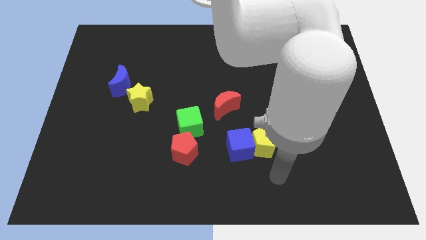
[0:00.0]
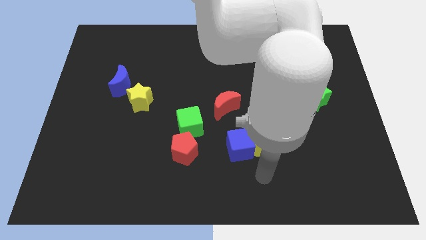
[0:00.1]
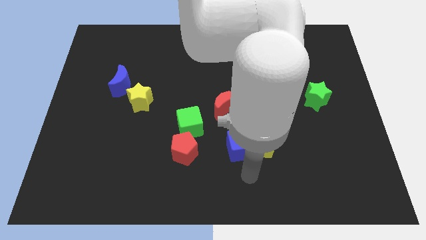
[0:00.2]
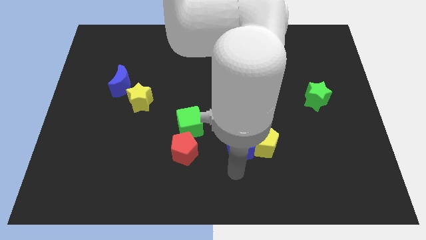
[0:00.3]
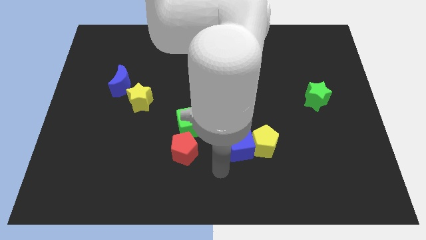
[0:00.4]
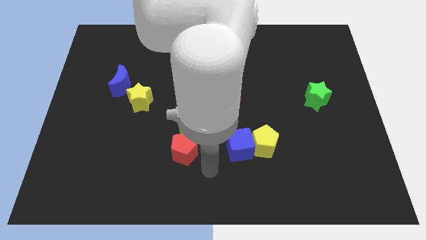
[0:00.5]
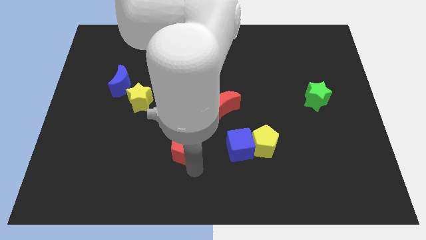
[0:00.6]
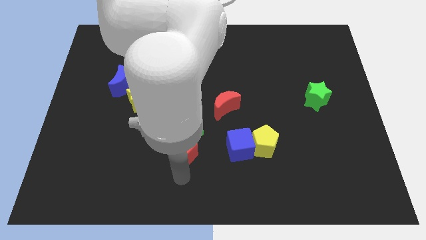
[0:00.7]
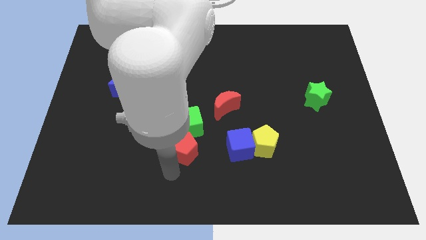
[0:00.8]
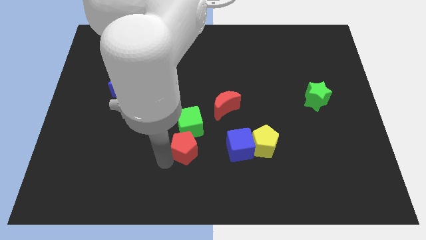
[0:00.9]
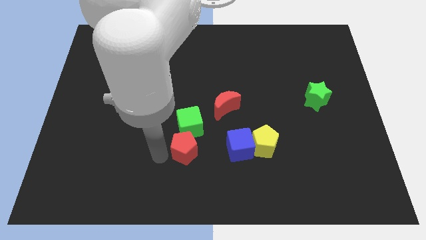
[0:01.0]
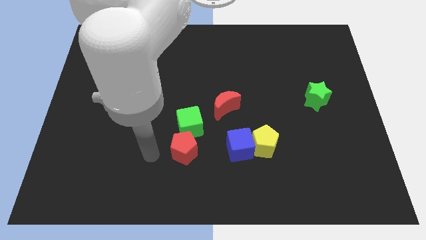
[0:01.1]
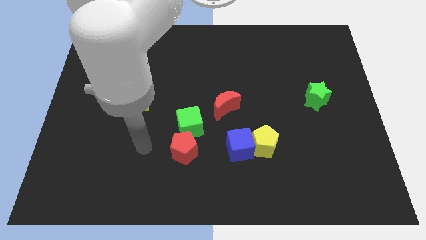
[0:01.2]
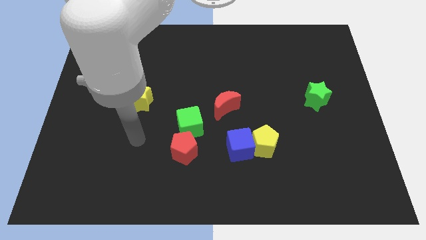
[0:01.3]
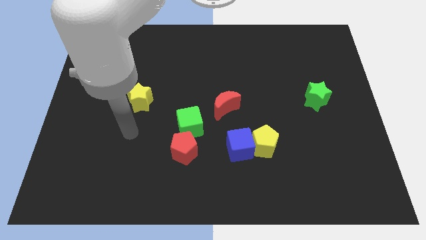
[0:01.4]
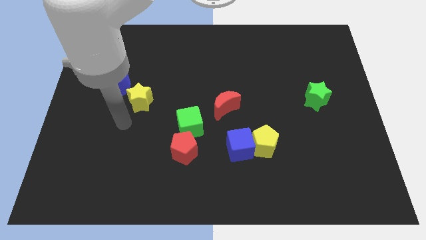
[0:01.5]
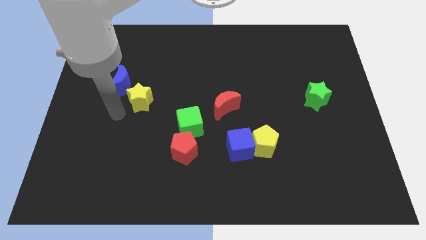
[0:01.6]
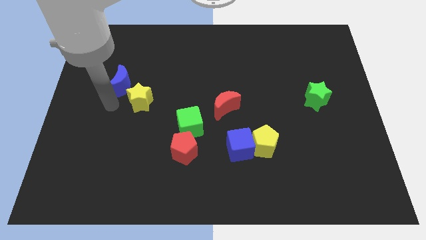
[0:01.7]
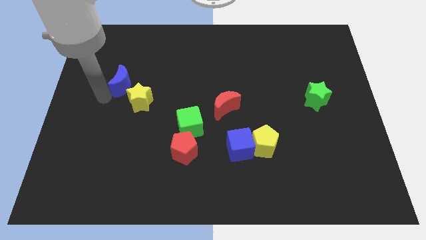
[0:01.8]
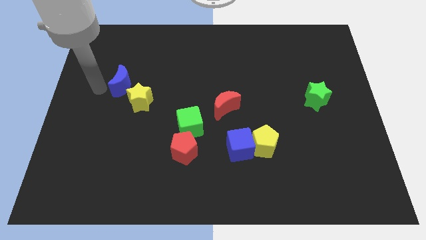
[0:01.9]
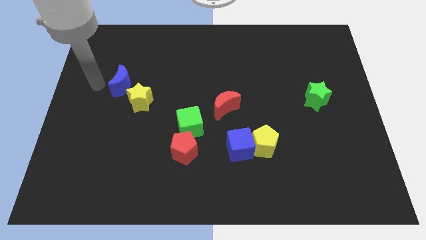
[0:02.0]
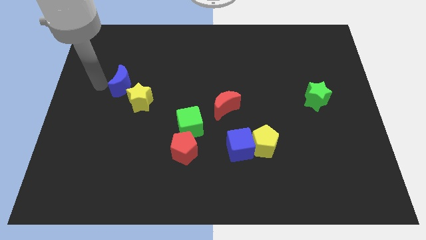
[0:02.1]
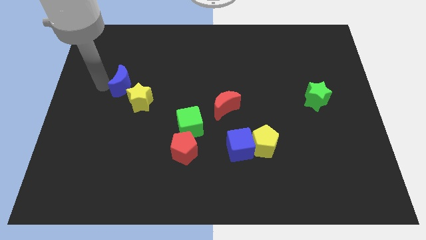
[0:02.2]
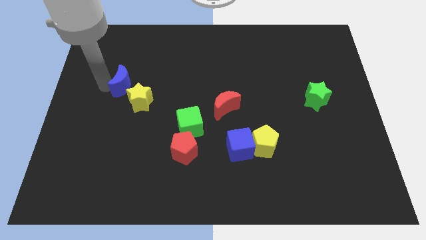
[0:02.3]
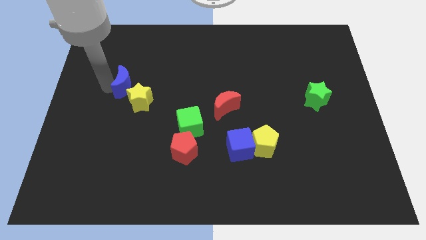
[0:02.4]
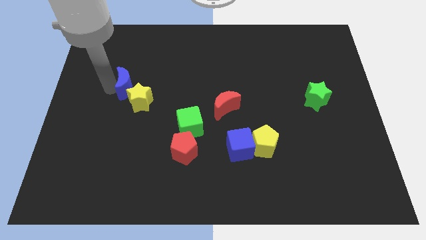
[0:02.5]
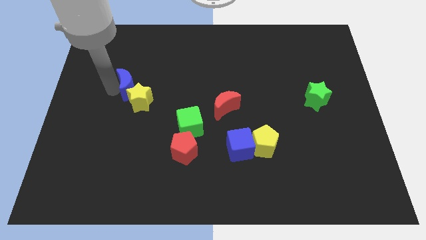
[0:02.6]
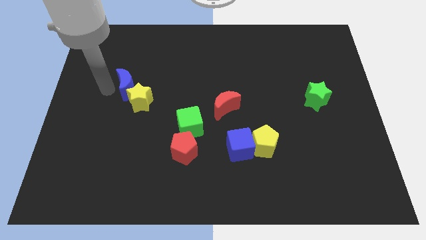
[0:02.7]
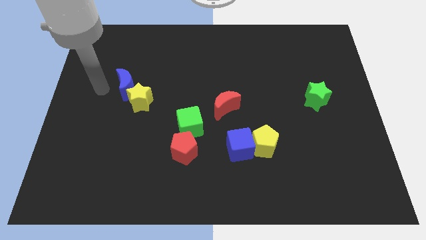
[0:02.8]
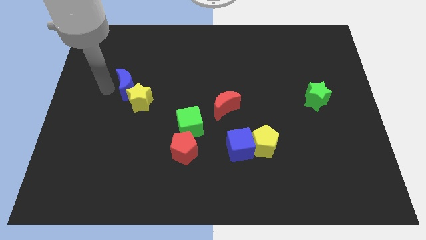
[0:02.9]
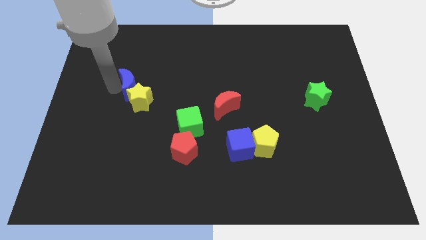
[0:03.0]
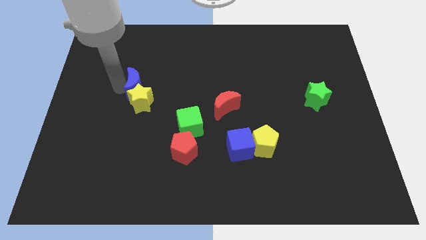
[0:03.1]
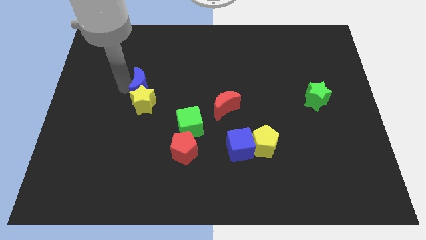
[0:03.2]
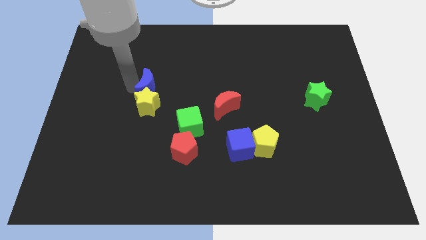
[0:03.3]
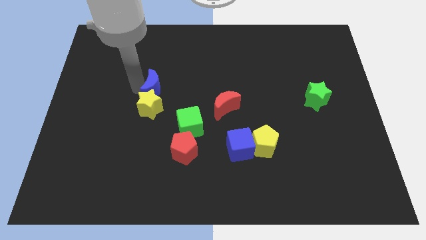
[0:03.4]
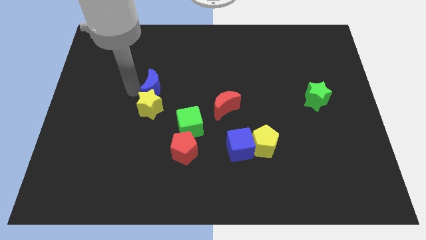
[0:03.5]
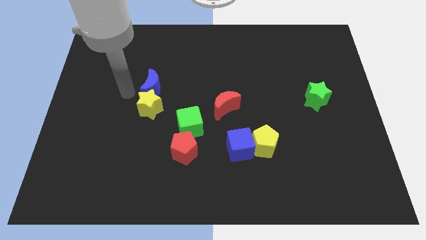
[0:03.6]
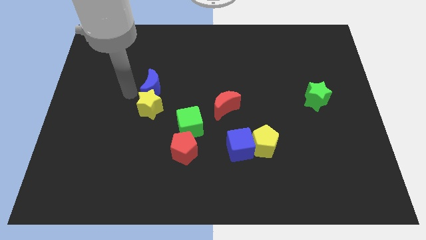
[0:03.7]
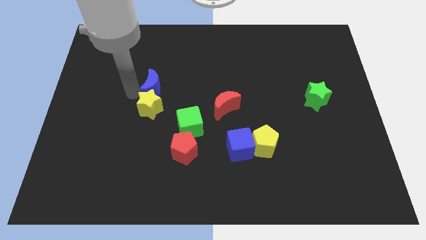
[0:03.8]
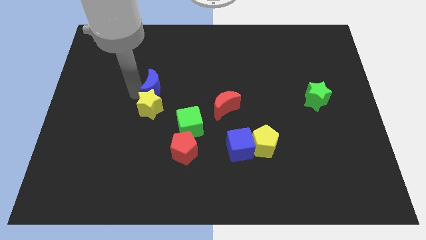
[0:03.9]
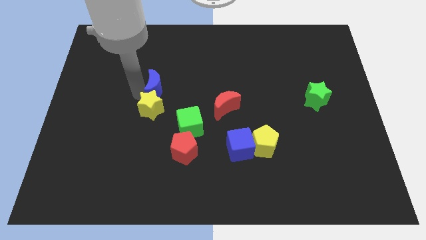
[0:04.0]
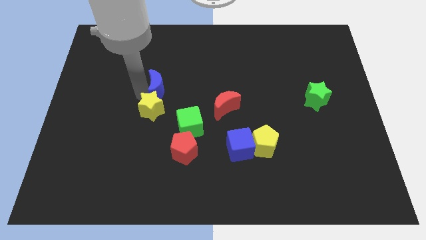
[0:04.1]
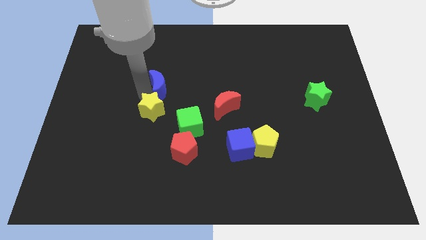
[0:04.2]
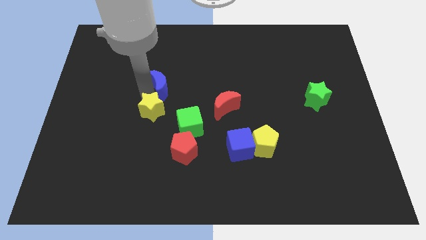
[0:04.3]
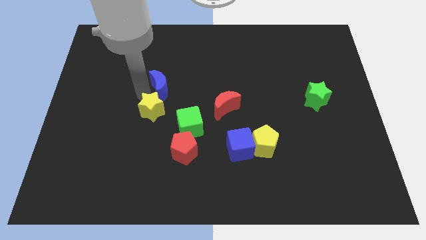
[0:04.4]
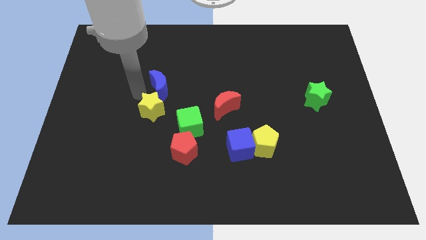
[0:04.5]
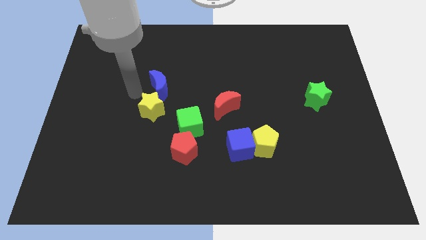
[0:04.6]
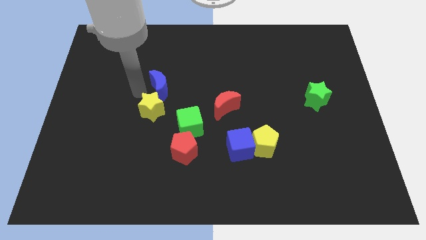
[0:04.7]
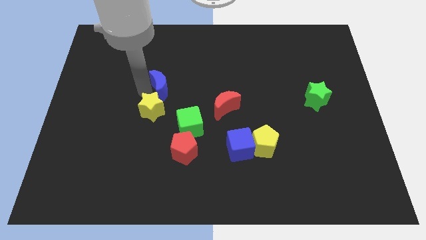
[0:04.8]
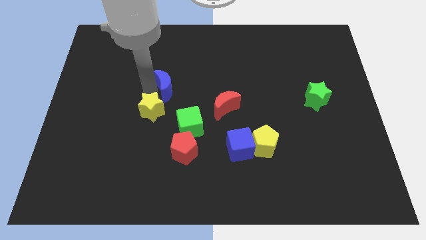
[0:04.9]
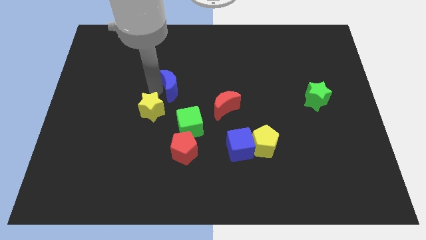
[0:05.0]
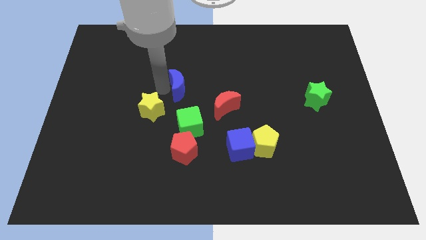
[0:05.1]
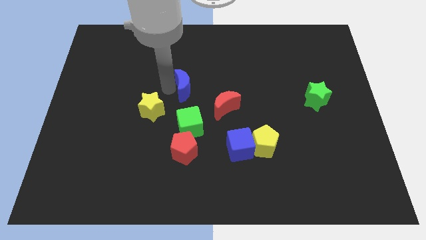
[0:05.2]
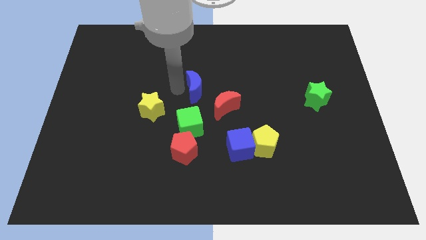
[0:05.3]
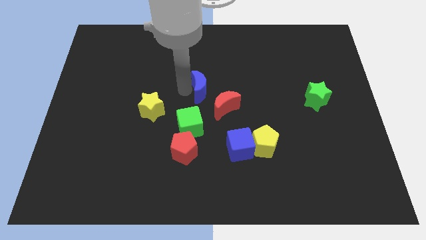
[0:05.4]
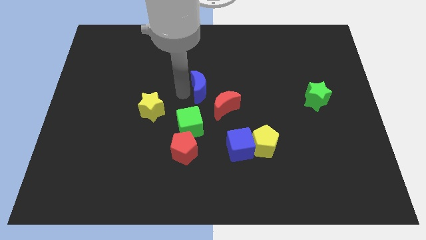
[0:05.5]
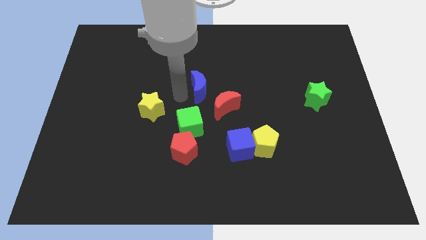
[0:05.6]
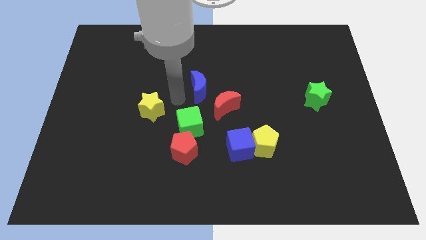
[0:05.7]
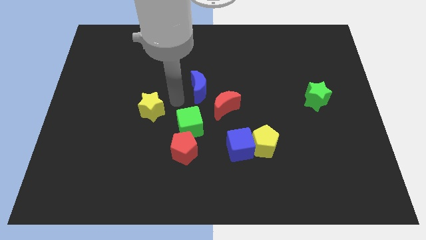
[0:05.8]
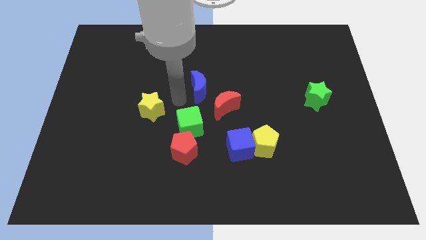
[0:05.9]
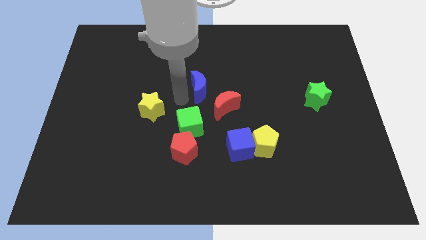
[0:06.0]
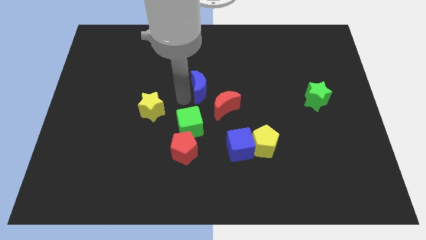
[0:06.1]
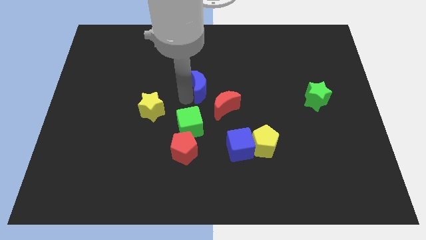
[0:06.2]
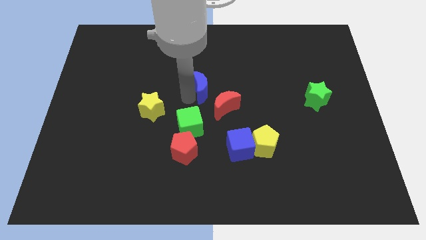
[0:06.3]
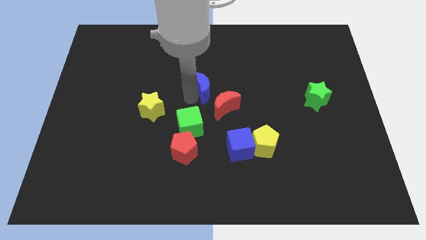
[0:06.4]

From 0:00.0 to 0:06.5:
push the blue moon to the right

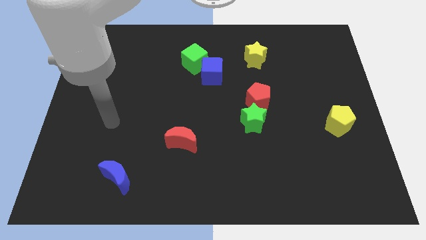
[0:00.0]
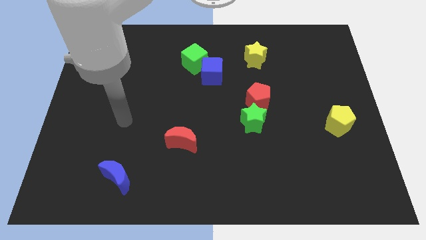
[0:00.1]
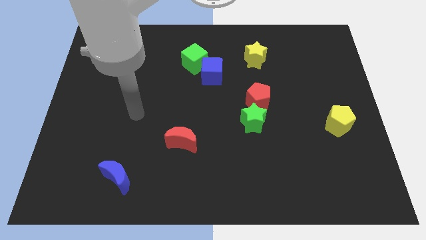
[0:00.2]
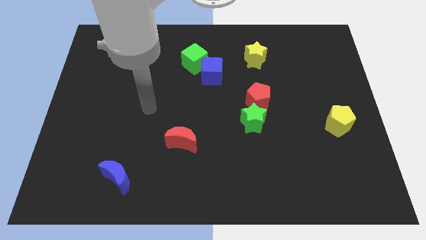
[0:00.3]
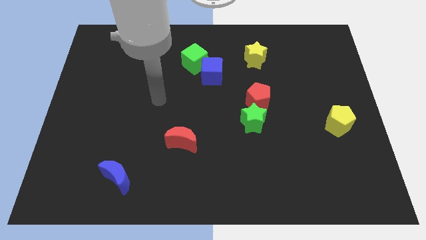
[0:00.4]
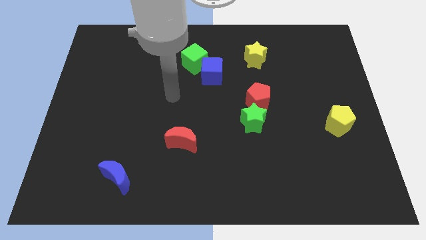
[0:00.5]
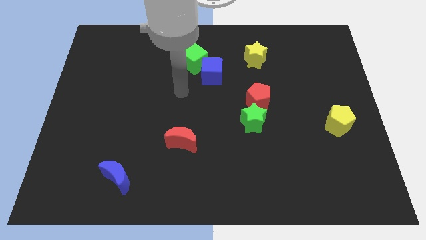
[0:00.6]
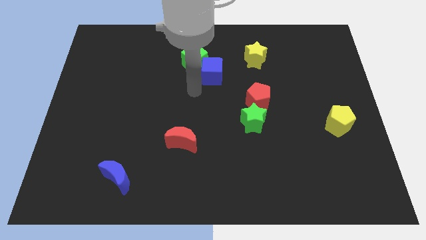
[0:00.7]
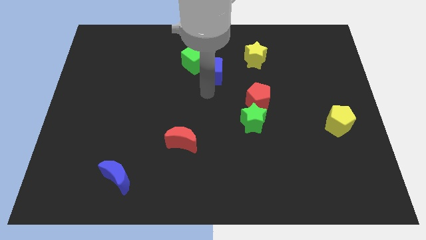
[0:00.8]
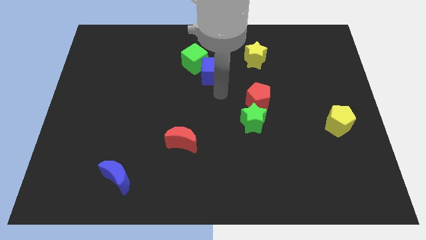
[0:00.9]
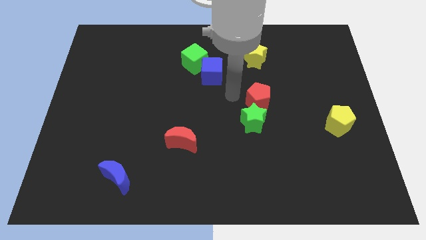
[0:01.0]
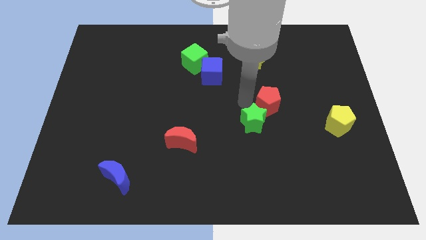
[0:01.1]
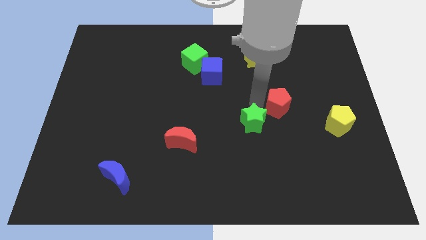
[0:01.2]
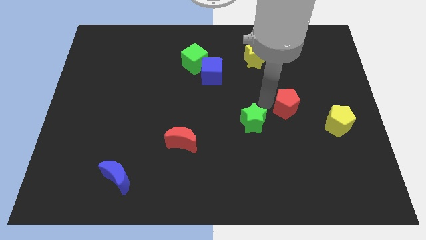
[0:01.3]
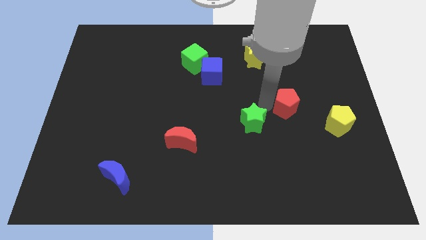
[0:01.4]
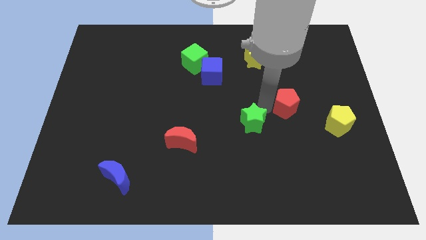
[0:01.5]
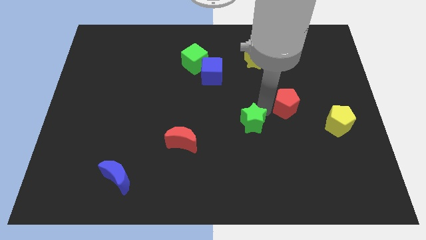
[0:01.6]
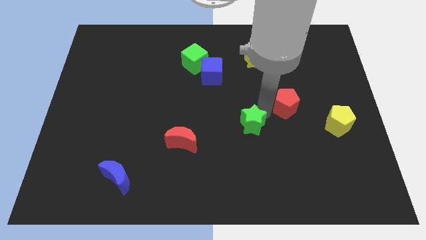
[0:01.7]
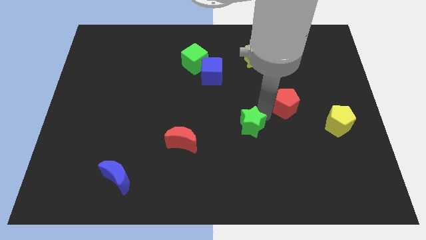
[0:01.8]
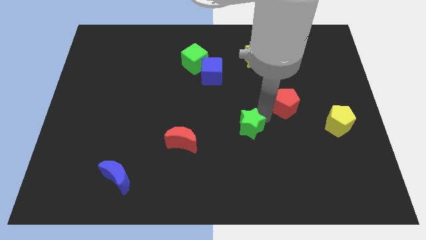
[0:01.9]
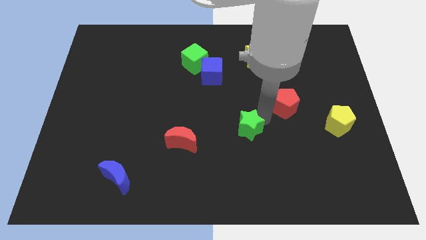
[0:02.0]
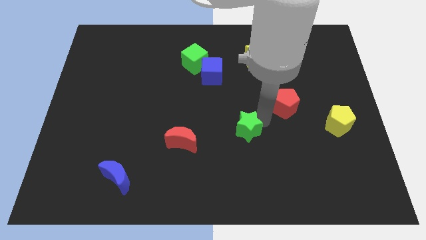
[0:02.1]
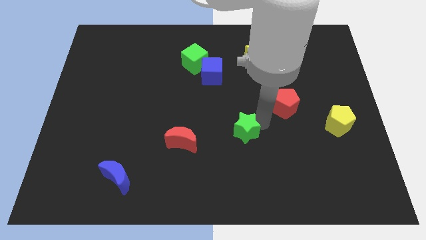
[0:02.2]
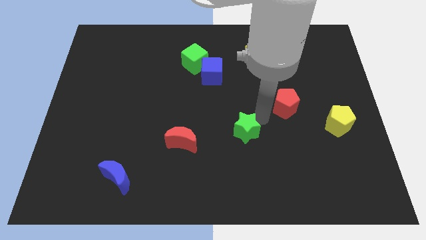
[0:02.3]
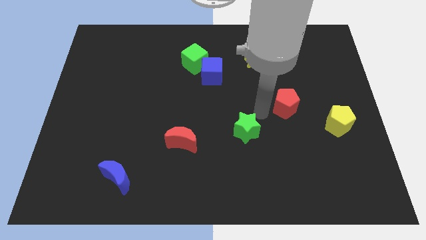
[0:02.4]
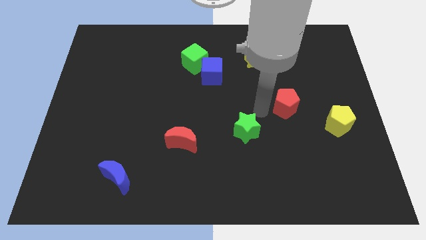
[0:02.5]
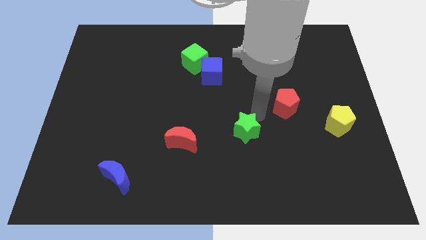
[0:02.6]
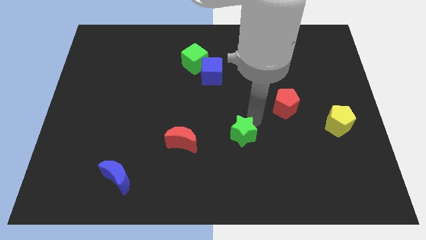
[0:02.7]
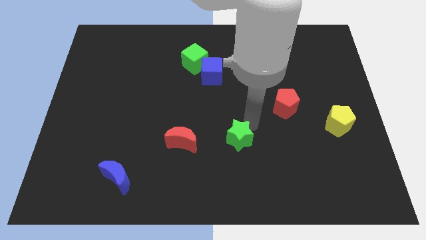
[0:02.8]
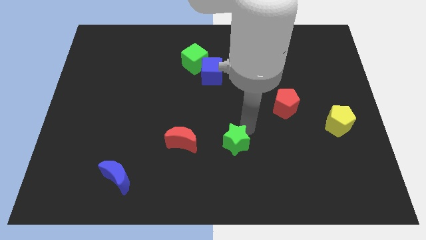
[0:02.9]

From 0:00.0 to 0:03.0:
slightly slide the green star downwards and then to the left
